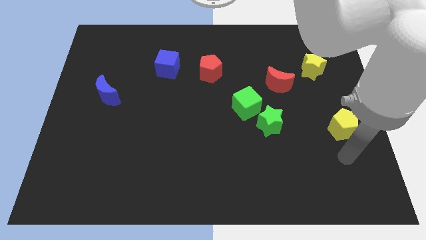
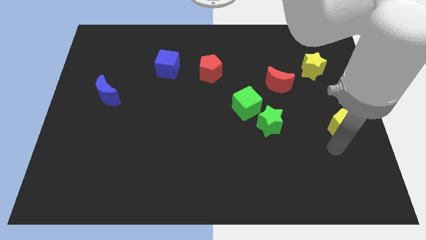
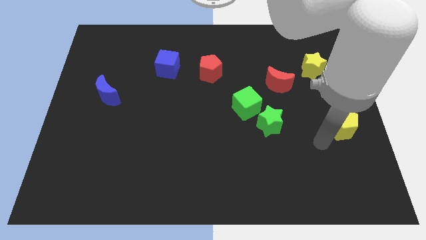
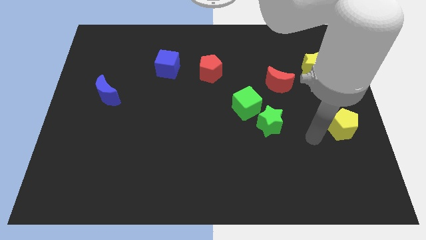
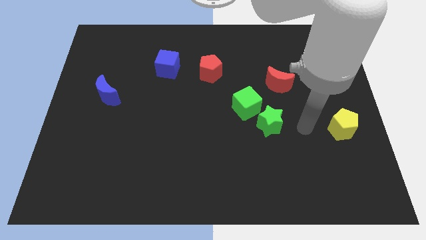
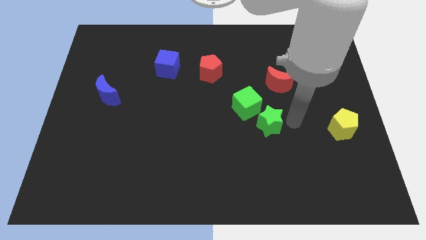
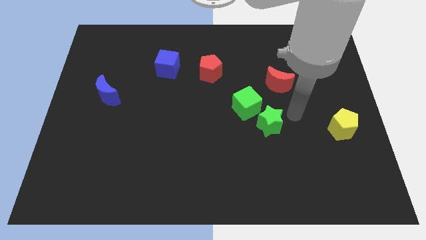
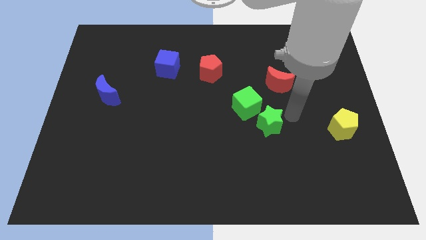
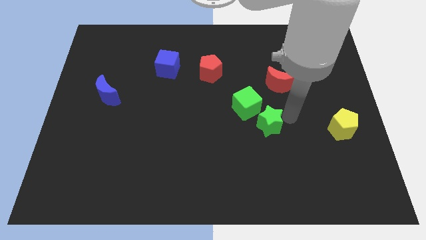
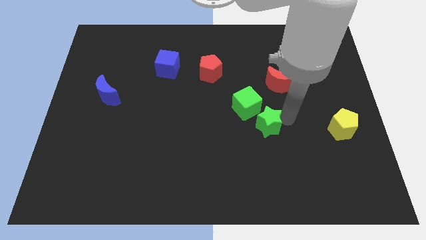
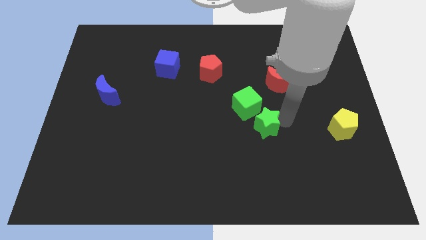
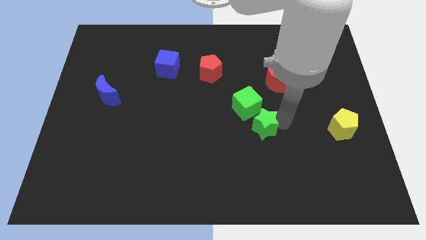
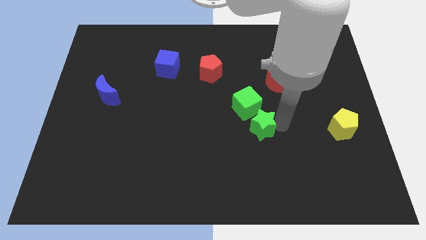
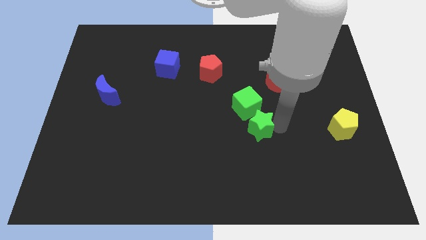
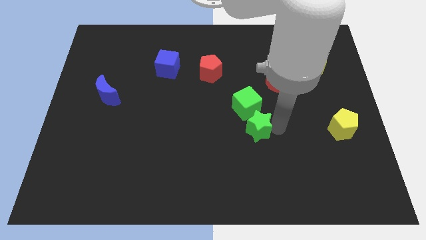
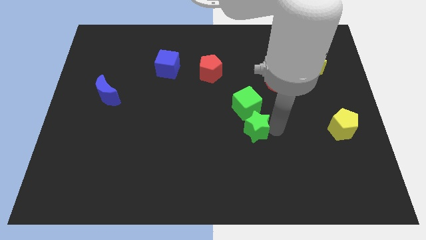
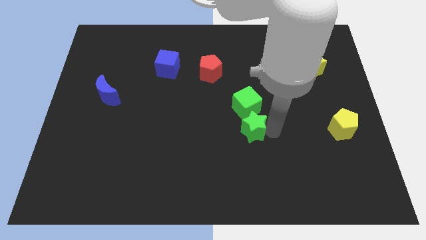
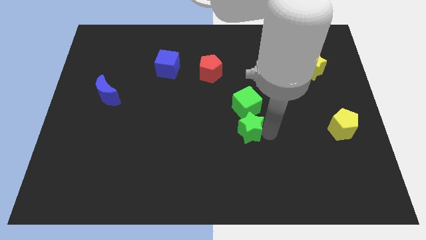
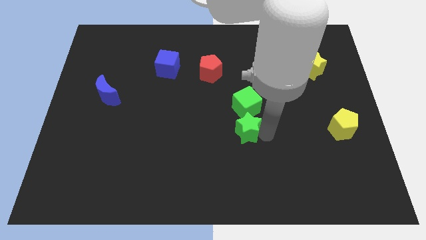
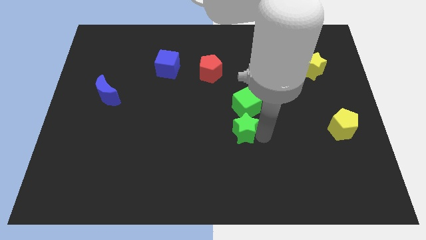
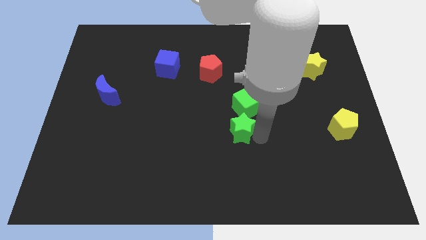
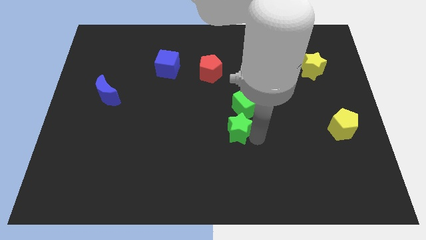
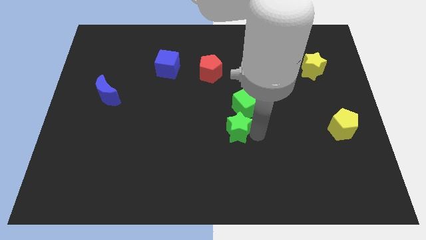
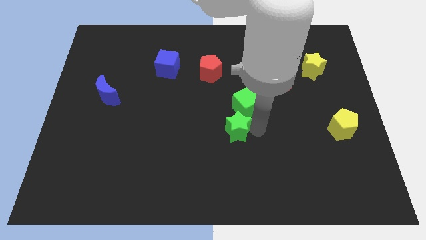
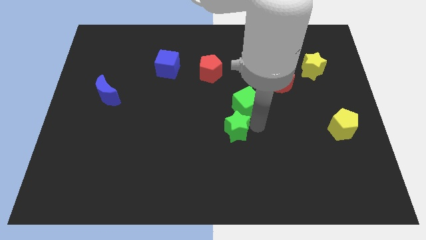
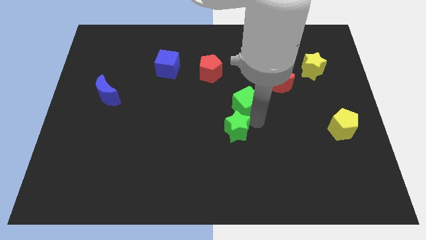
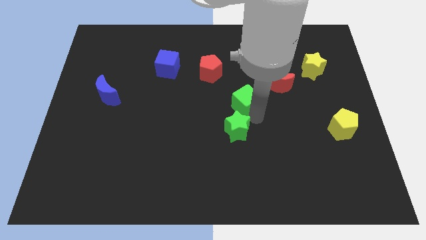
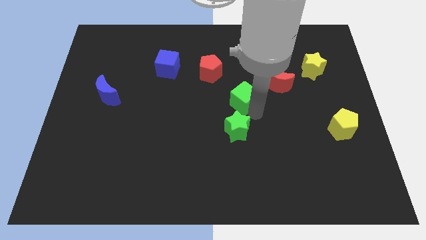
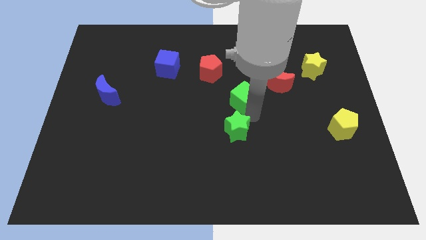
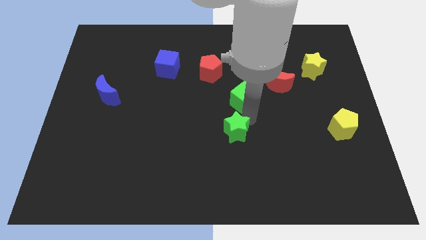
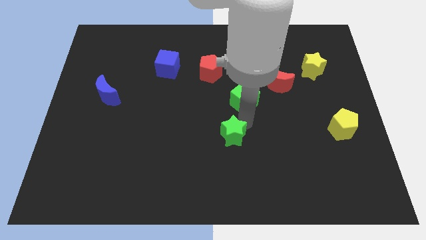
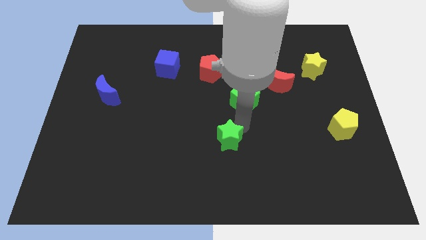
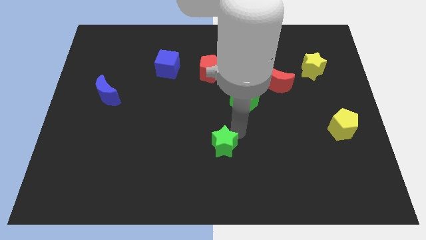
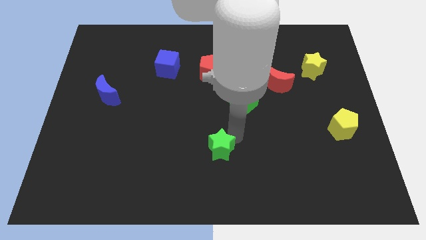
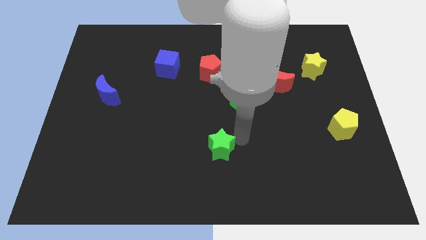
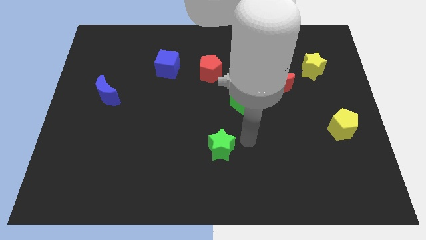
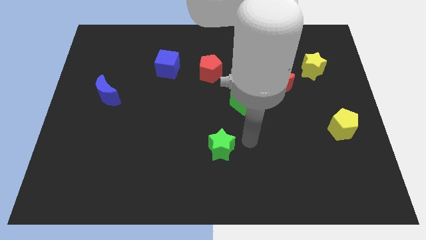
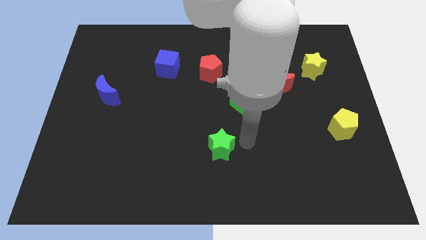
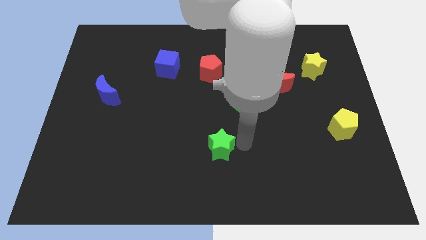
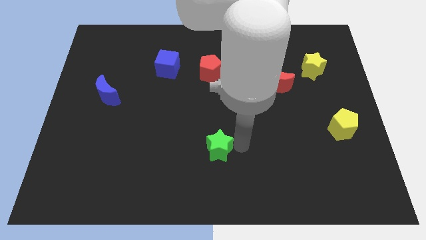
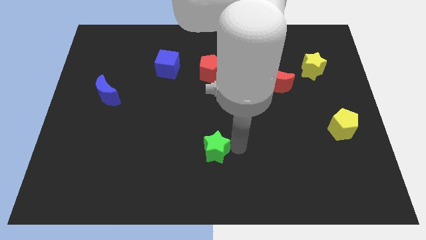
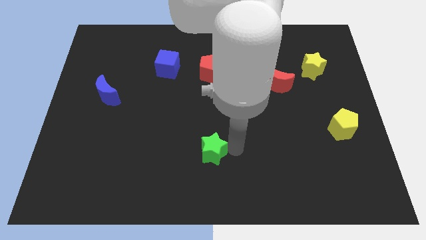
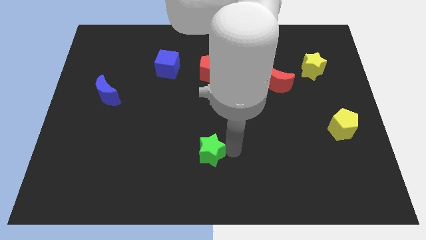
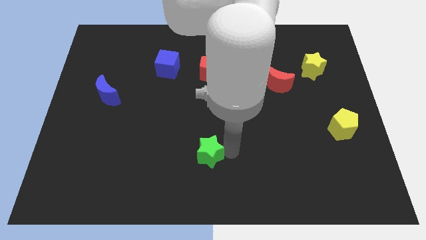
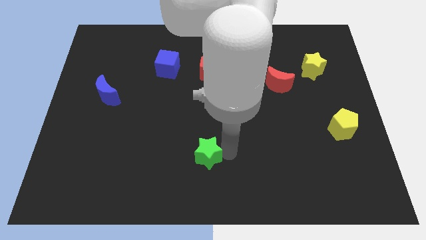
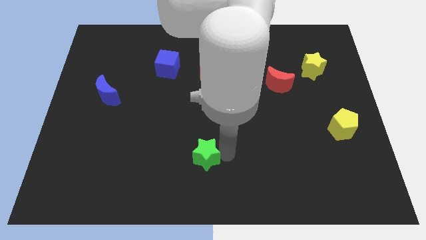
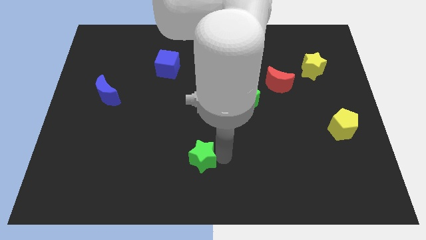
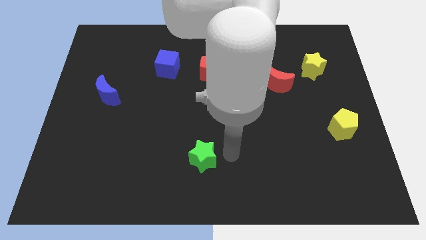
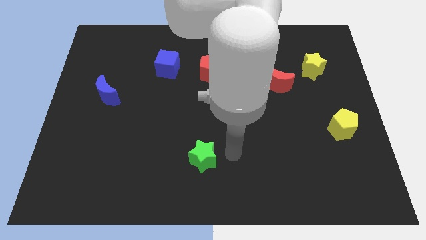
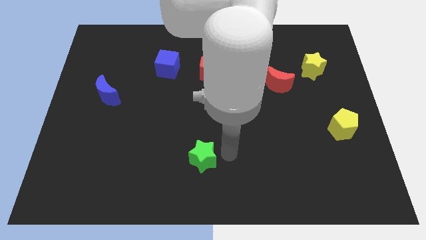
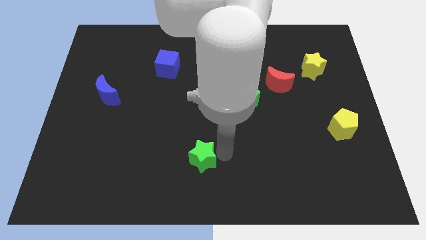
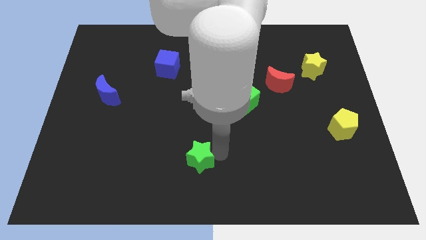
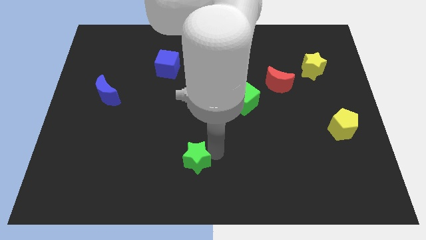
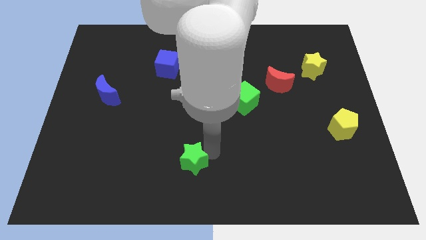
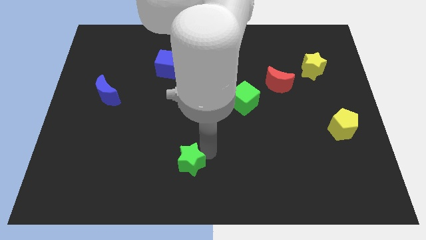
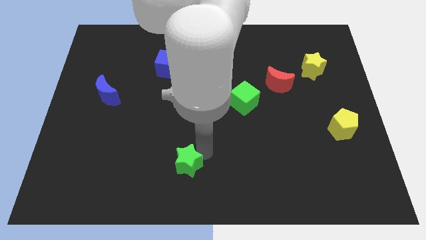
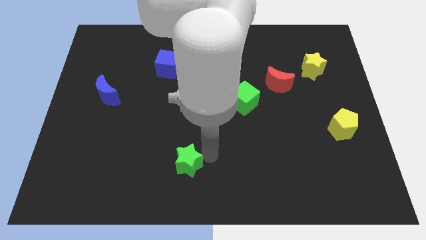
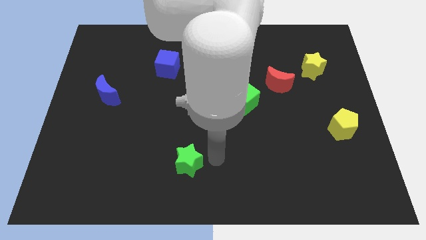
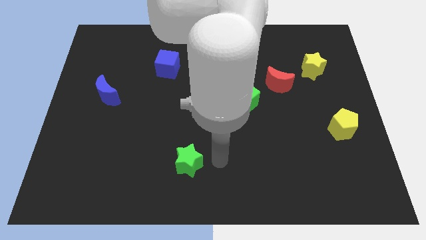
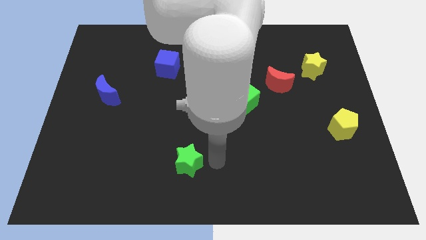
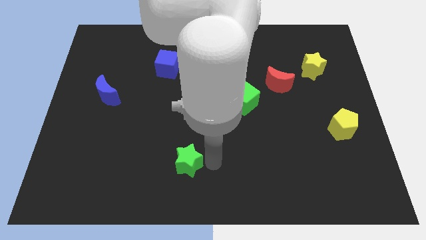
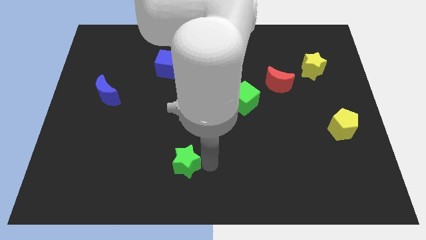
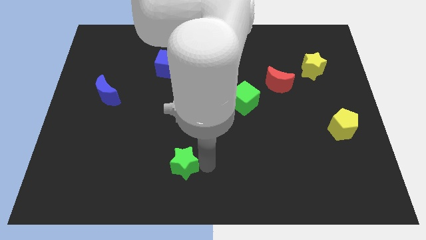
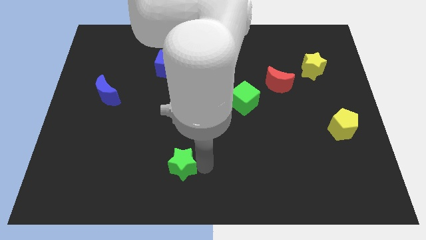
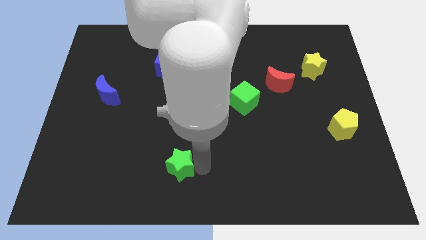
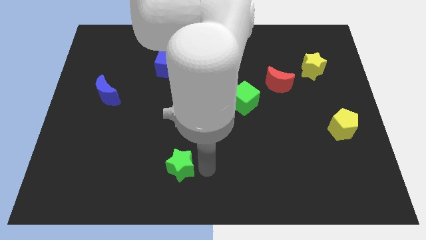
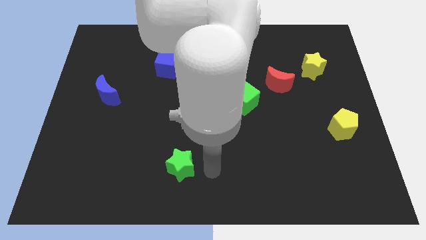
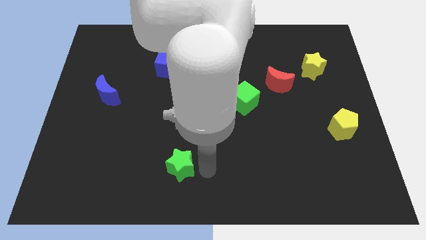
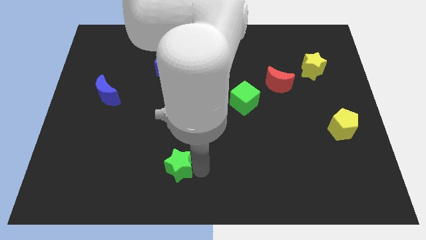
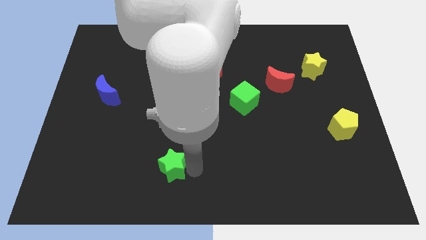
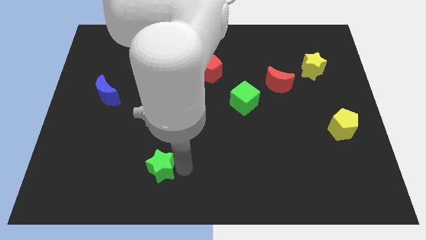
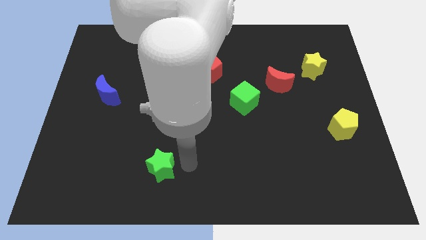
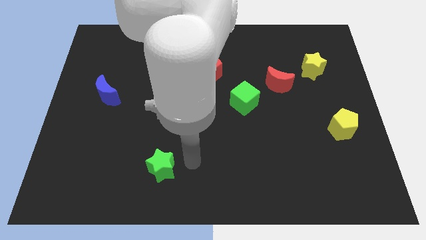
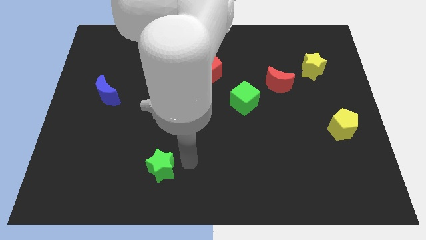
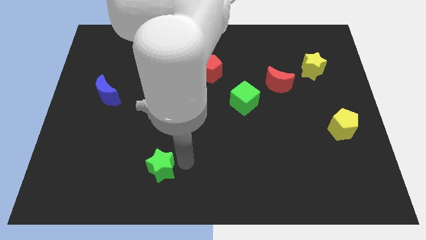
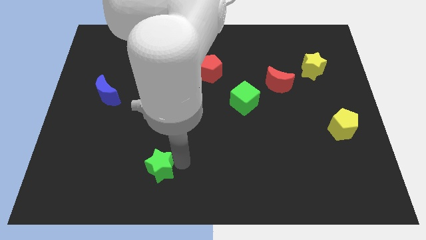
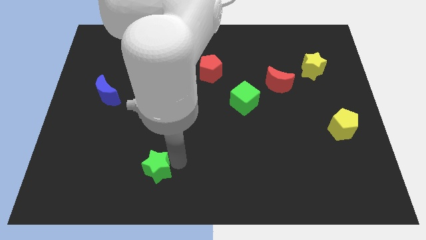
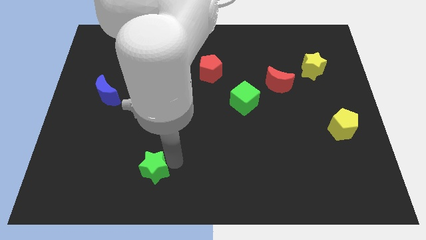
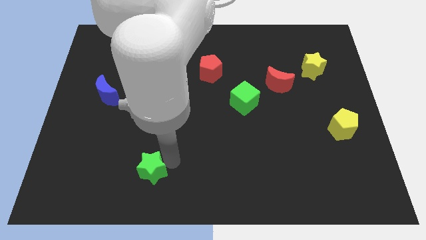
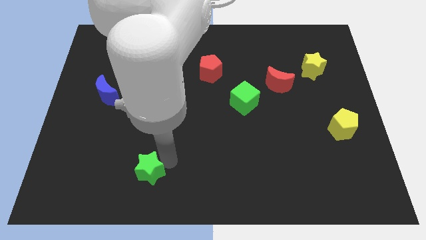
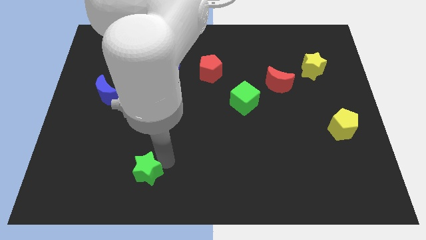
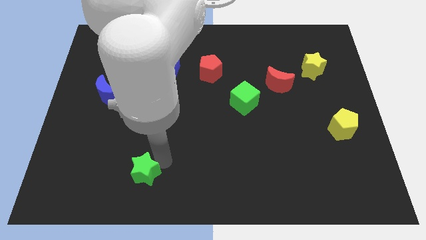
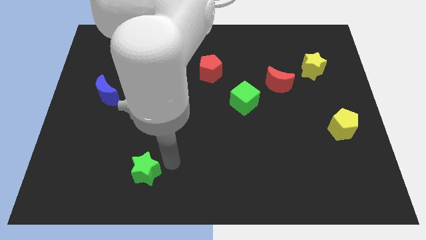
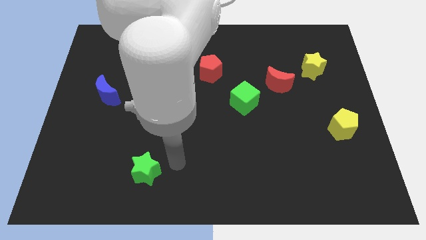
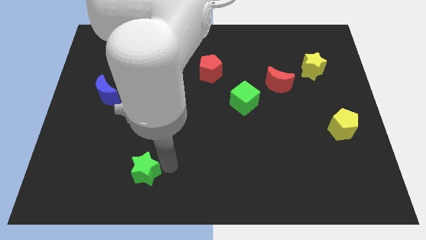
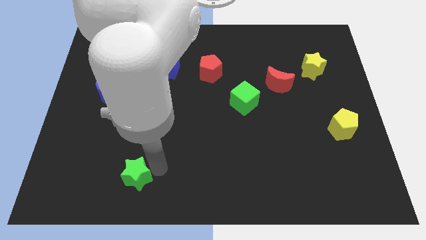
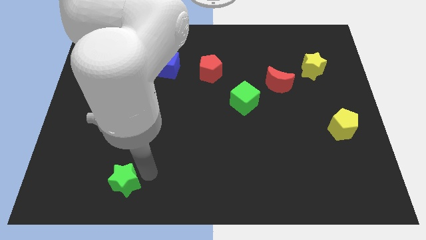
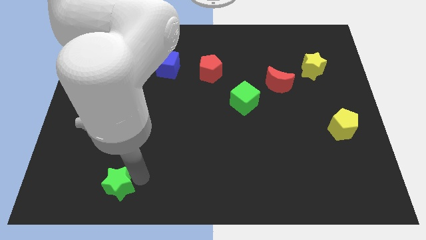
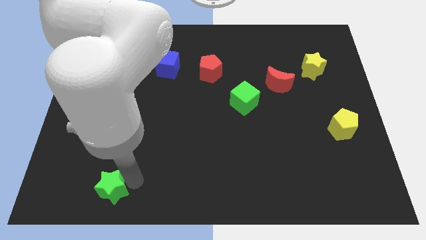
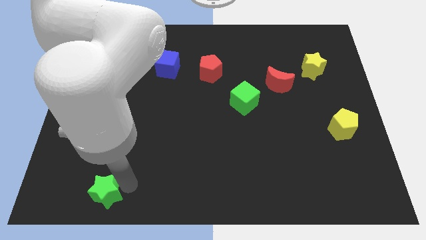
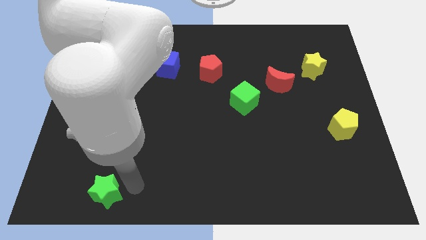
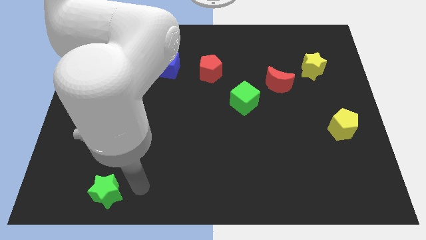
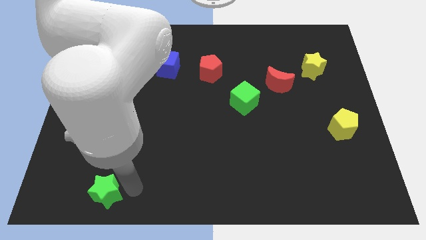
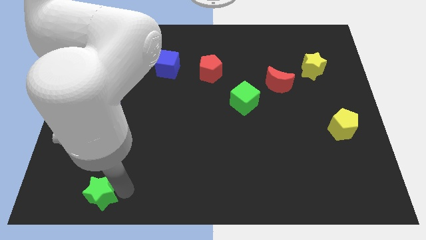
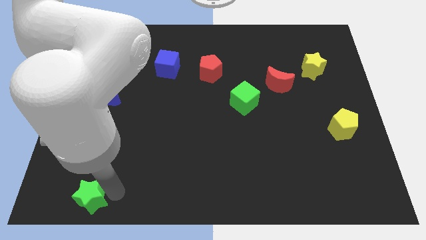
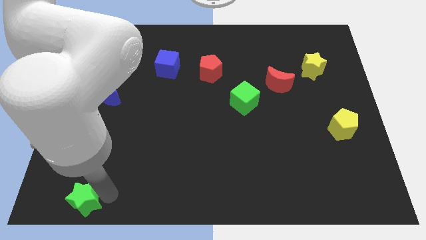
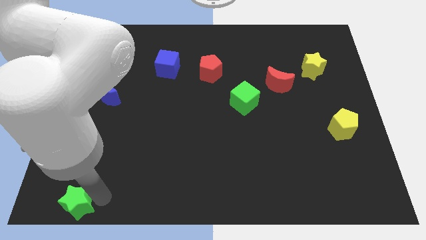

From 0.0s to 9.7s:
push the green star to the bottom left
